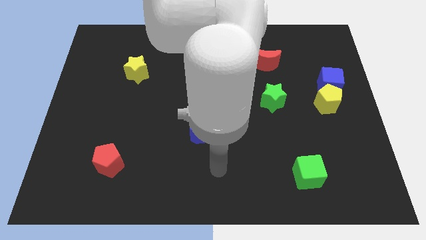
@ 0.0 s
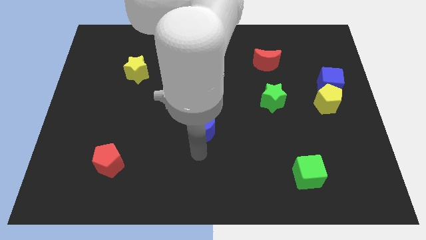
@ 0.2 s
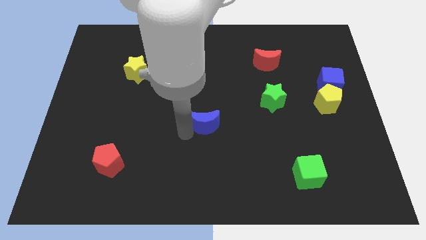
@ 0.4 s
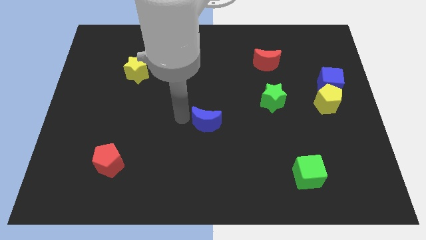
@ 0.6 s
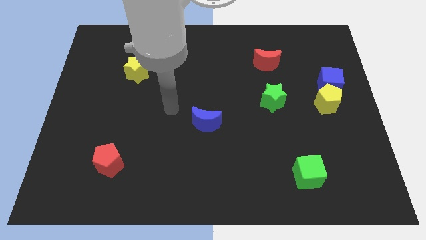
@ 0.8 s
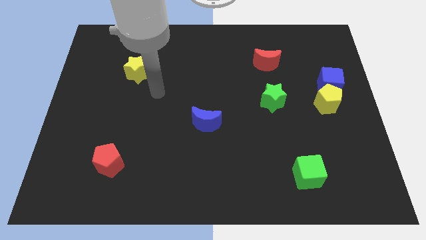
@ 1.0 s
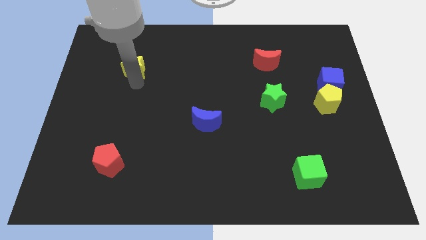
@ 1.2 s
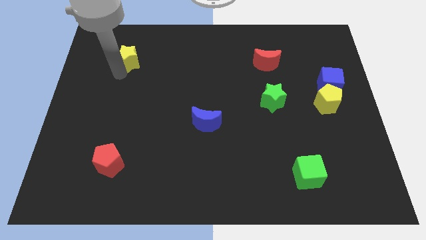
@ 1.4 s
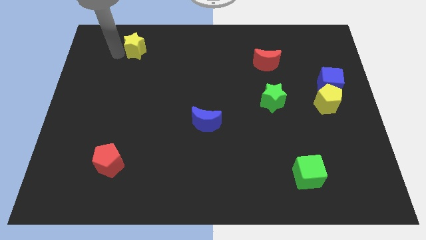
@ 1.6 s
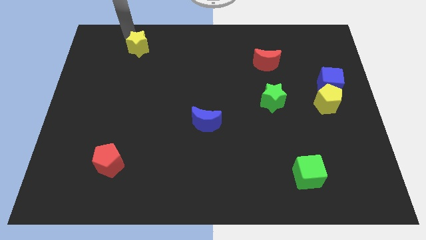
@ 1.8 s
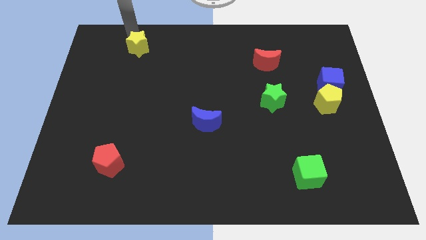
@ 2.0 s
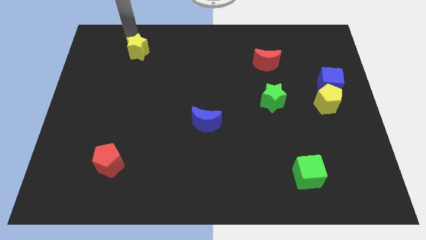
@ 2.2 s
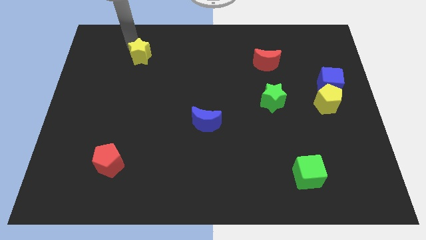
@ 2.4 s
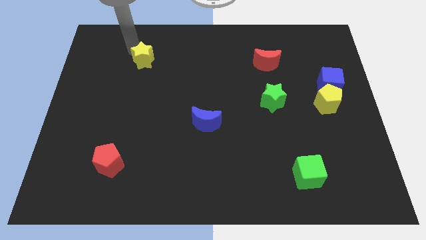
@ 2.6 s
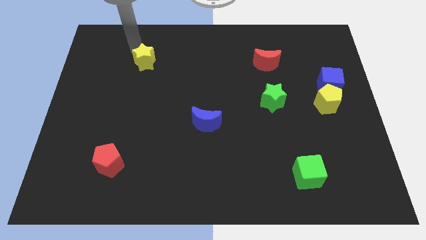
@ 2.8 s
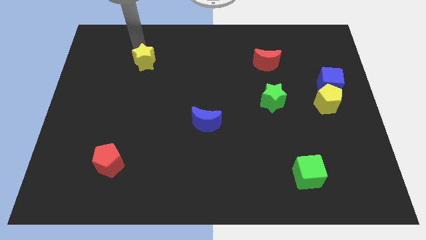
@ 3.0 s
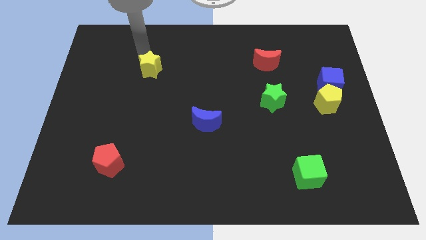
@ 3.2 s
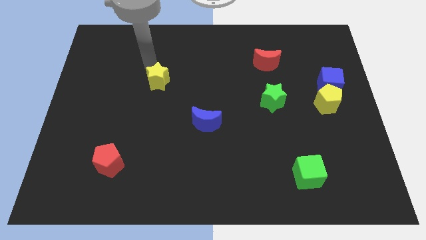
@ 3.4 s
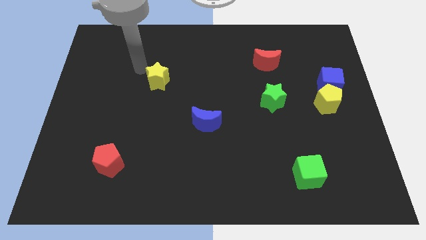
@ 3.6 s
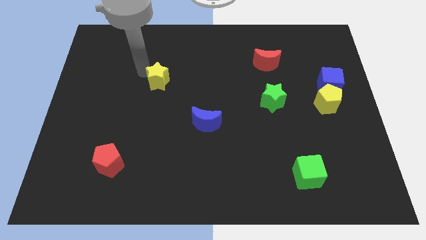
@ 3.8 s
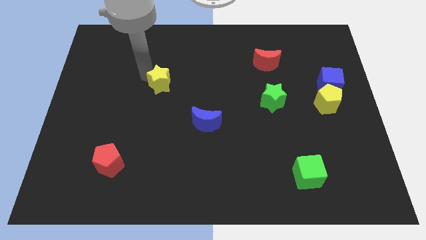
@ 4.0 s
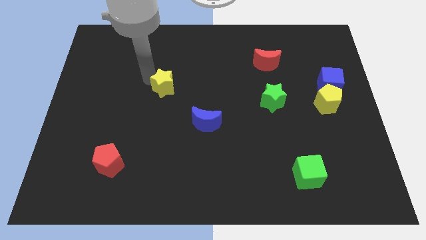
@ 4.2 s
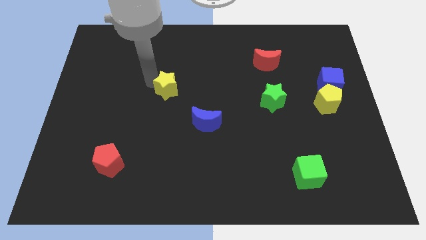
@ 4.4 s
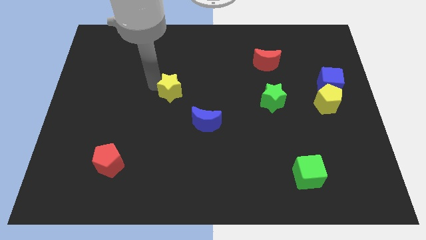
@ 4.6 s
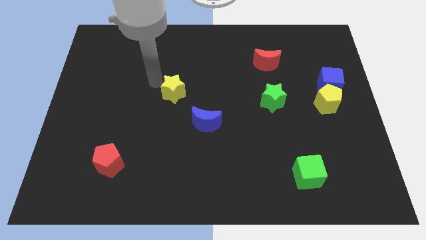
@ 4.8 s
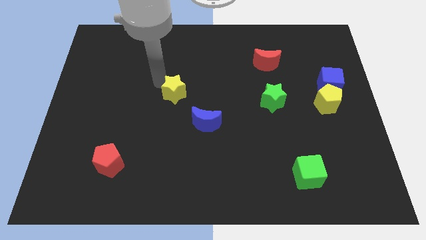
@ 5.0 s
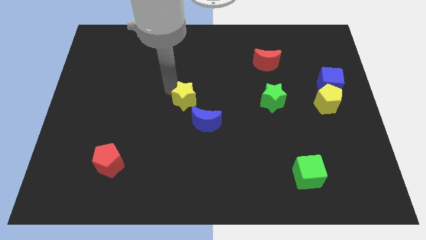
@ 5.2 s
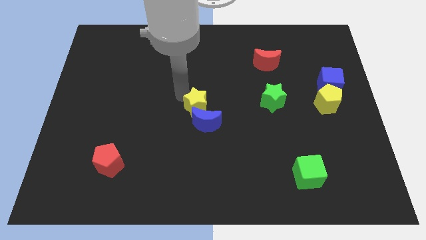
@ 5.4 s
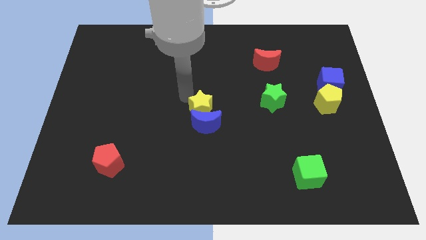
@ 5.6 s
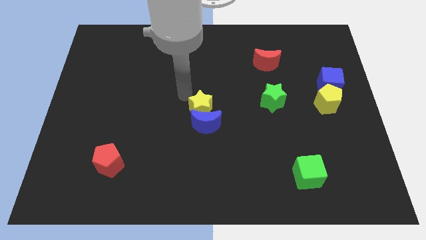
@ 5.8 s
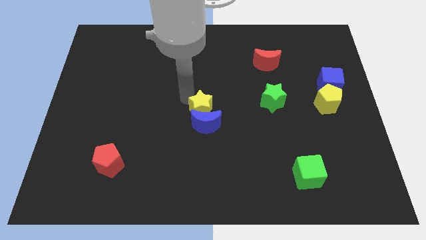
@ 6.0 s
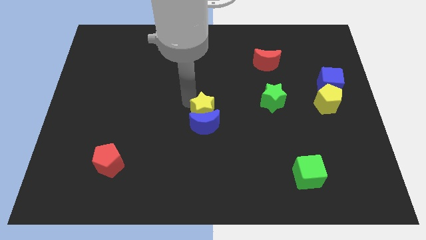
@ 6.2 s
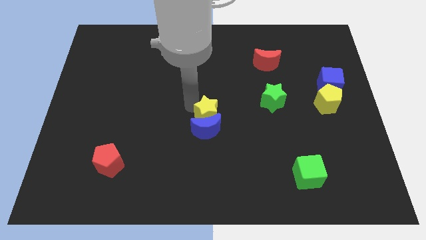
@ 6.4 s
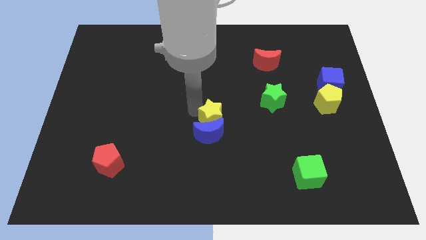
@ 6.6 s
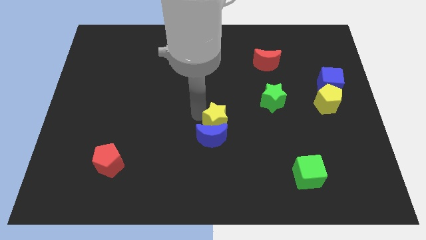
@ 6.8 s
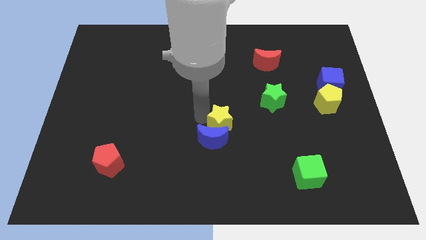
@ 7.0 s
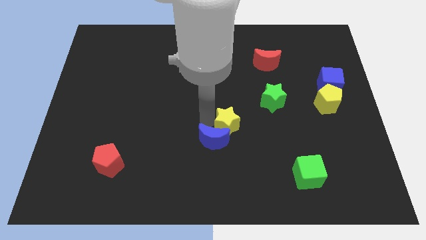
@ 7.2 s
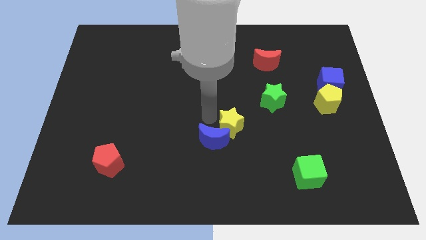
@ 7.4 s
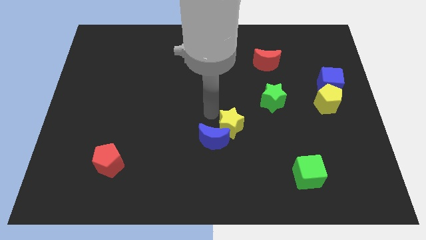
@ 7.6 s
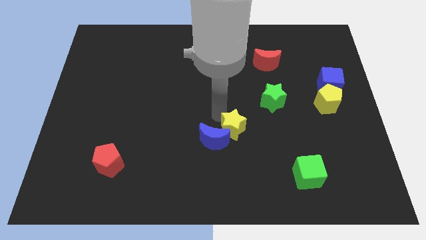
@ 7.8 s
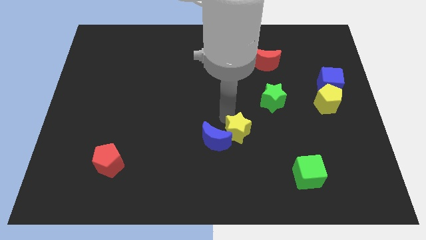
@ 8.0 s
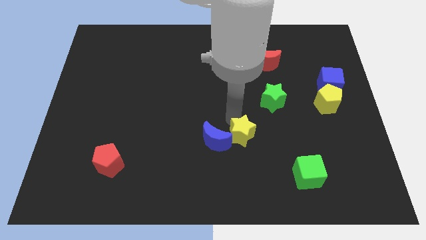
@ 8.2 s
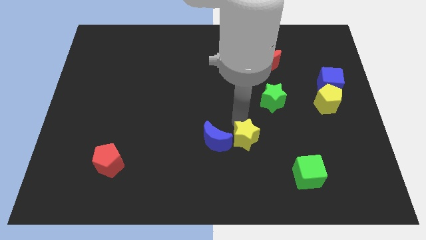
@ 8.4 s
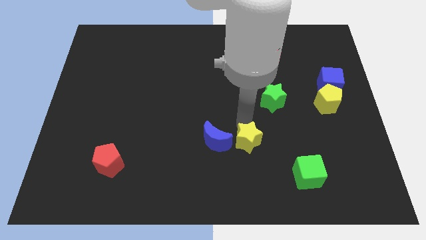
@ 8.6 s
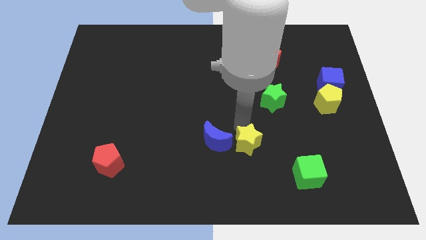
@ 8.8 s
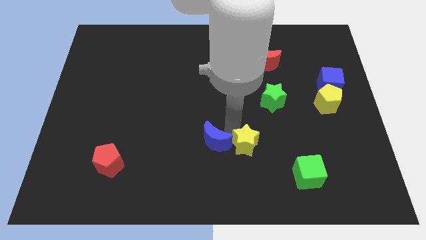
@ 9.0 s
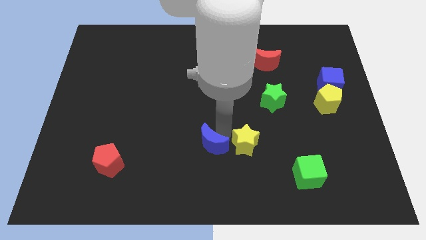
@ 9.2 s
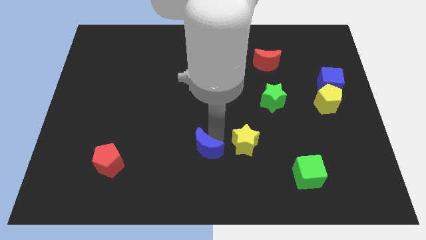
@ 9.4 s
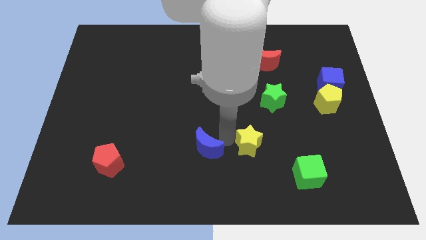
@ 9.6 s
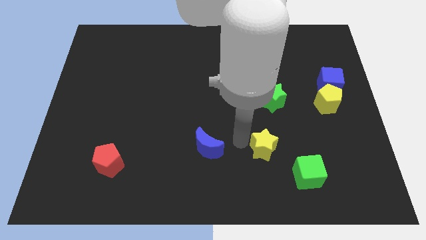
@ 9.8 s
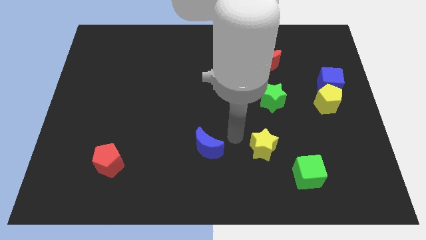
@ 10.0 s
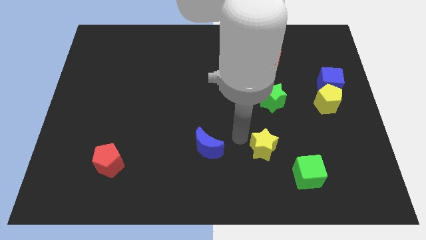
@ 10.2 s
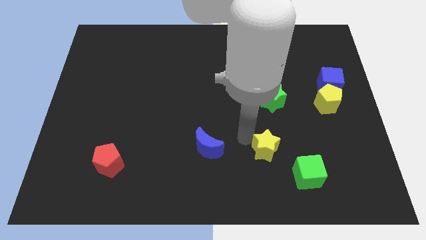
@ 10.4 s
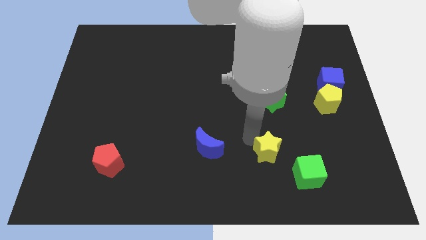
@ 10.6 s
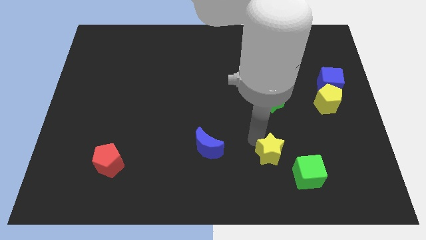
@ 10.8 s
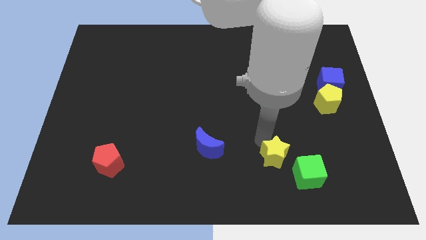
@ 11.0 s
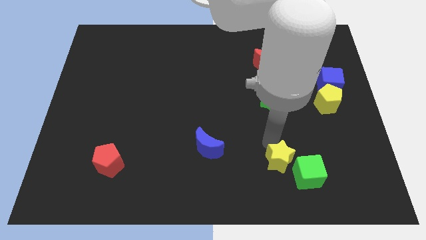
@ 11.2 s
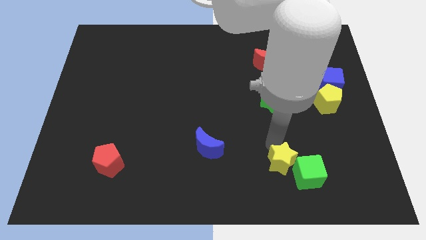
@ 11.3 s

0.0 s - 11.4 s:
slide the yellow star close to the green cube

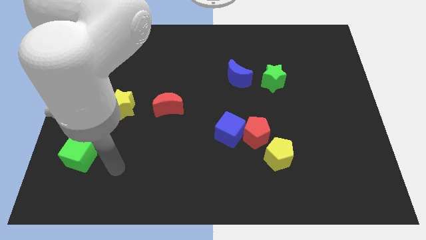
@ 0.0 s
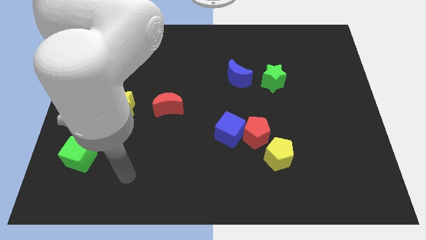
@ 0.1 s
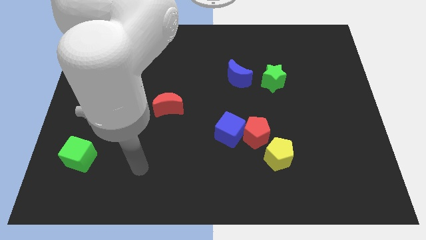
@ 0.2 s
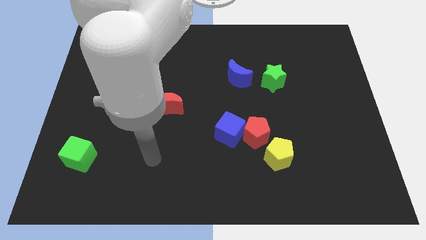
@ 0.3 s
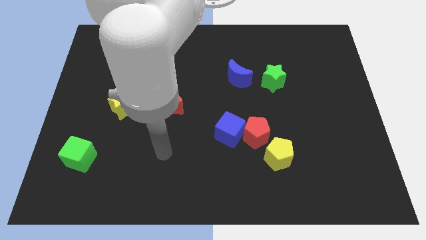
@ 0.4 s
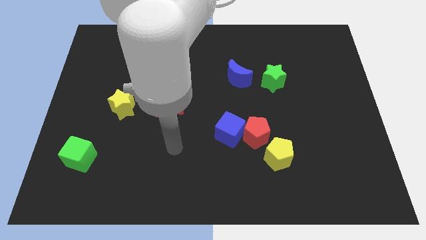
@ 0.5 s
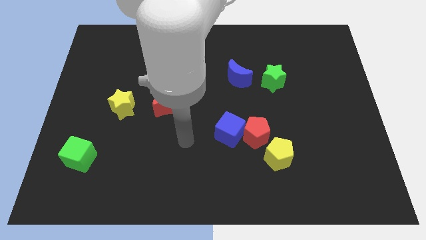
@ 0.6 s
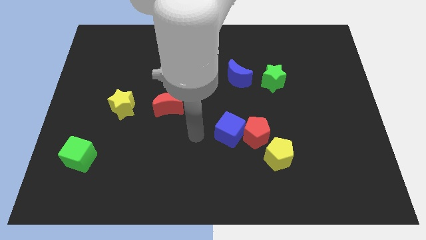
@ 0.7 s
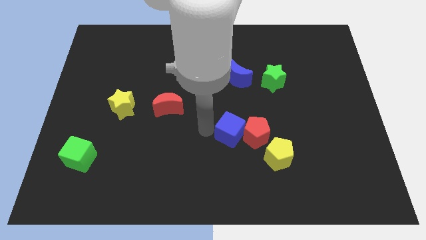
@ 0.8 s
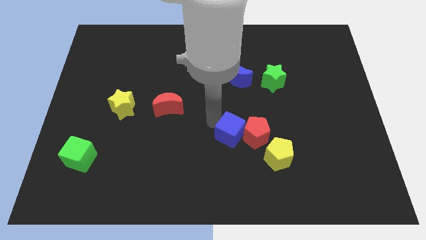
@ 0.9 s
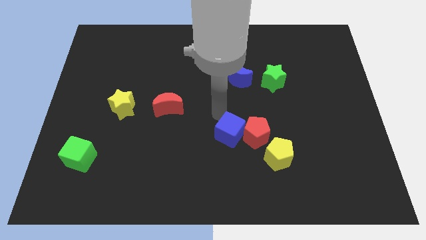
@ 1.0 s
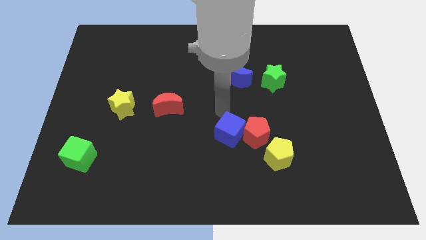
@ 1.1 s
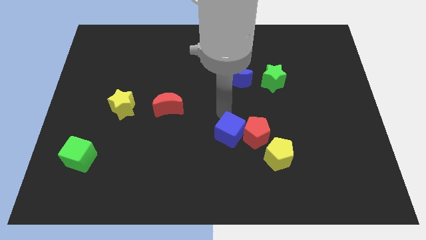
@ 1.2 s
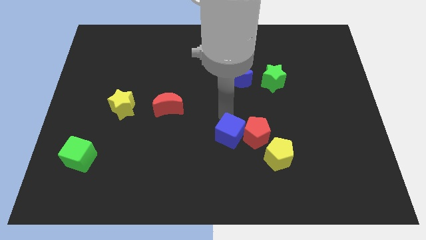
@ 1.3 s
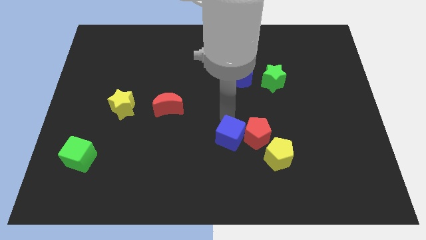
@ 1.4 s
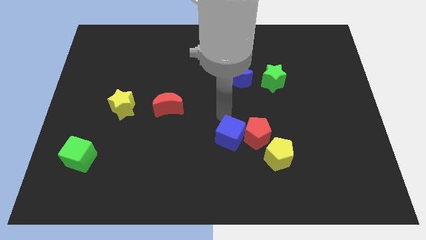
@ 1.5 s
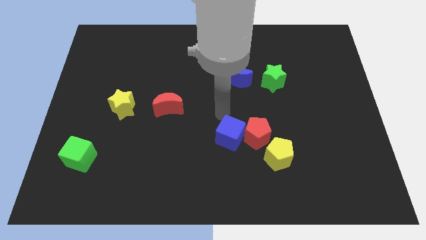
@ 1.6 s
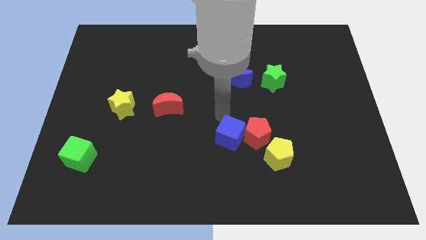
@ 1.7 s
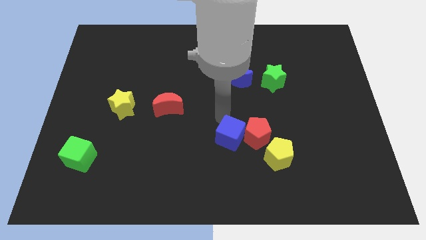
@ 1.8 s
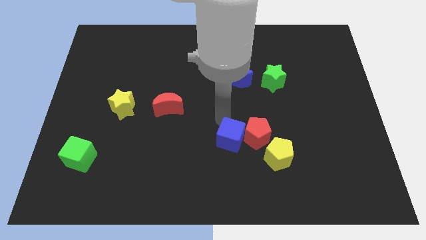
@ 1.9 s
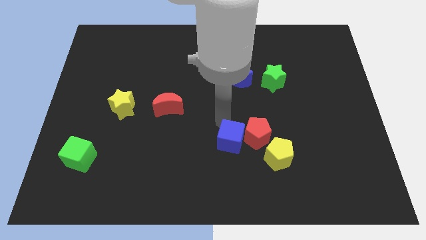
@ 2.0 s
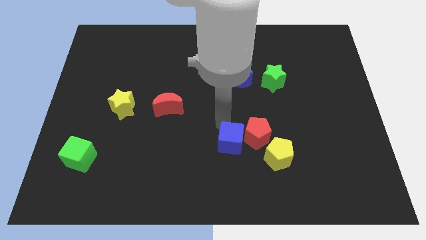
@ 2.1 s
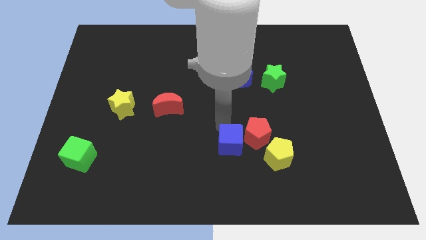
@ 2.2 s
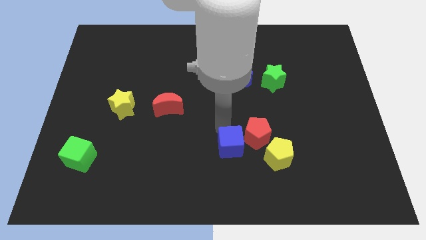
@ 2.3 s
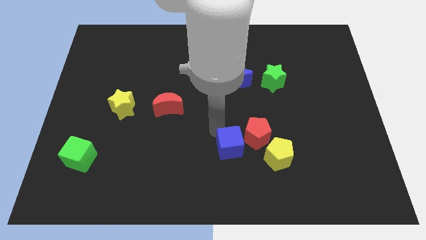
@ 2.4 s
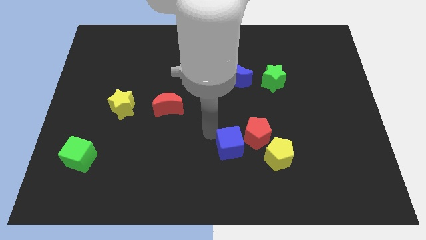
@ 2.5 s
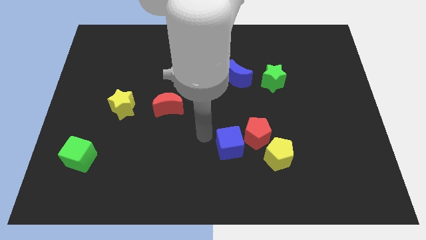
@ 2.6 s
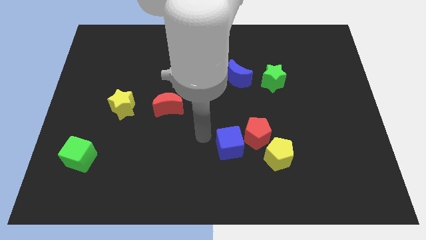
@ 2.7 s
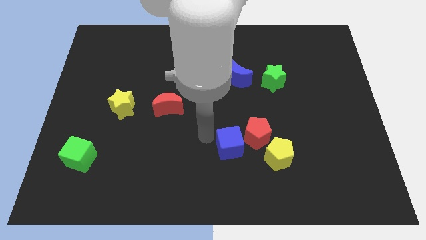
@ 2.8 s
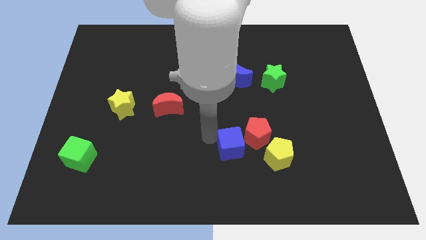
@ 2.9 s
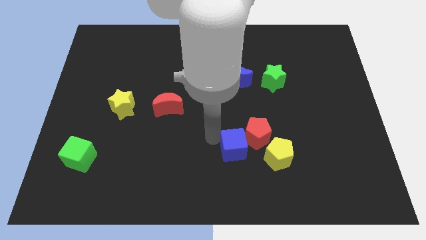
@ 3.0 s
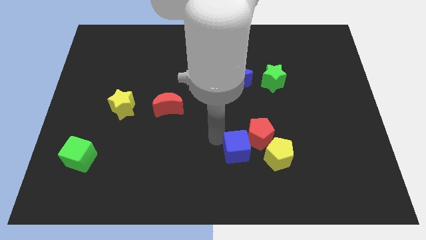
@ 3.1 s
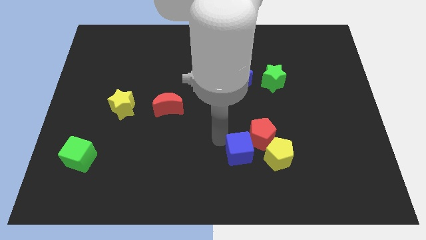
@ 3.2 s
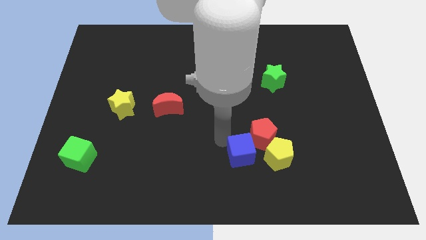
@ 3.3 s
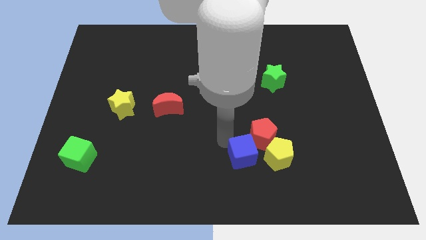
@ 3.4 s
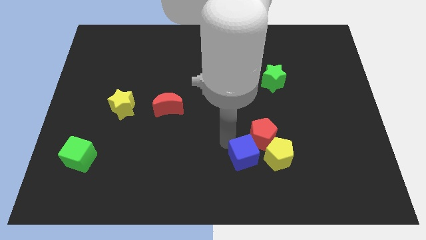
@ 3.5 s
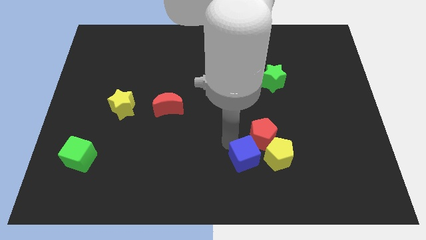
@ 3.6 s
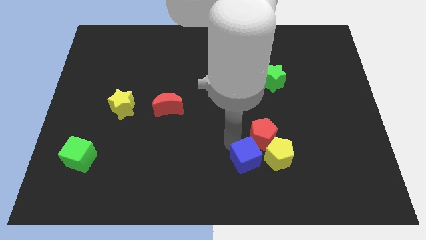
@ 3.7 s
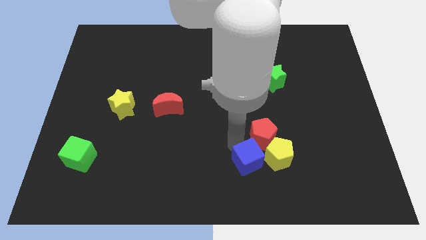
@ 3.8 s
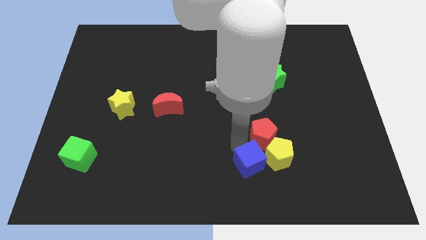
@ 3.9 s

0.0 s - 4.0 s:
move the blue cube towards the yellow pentagon
